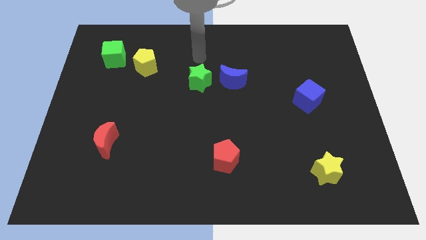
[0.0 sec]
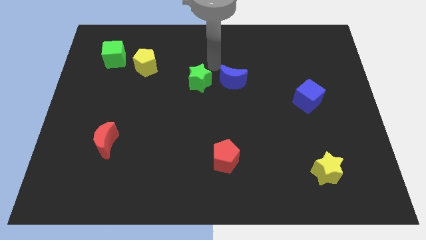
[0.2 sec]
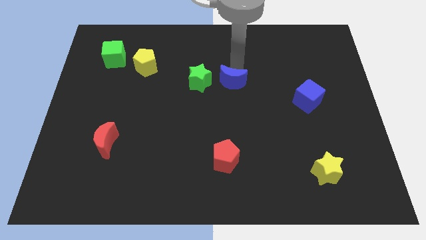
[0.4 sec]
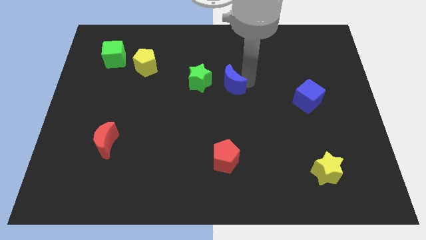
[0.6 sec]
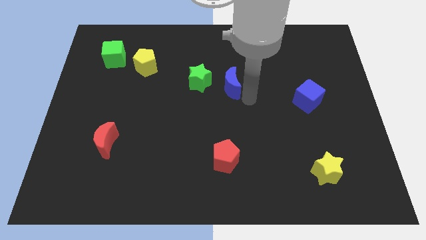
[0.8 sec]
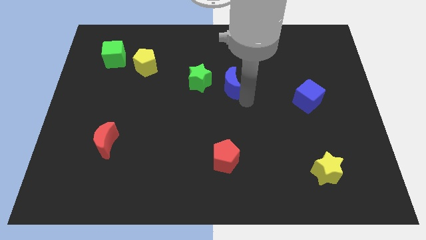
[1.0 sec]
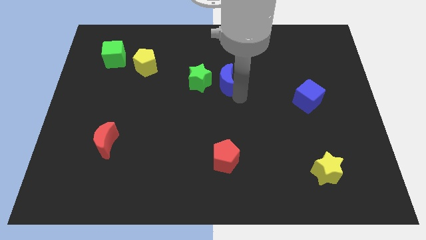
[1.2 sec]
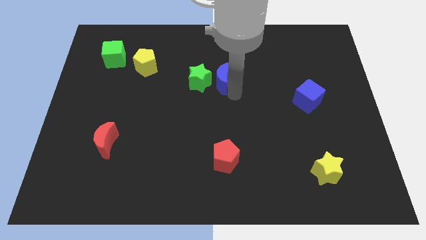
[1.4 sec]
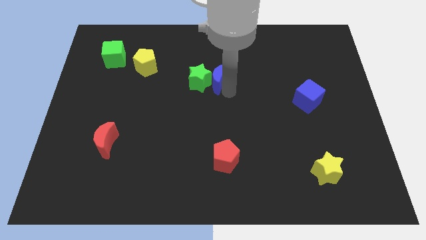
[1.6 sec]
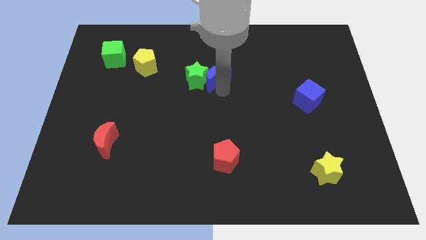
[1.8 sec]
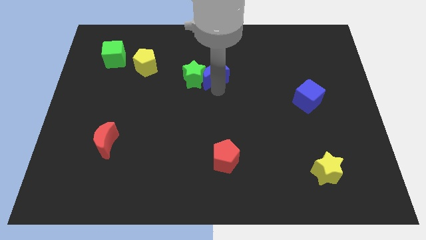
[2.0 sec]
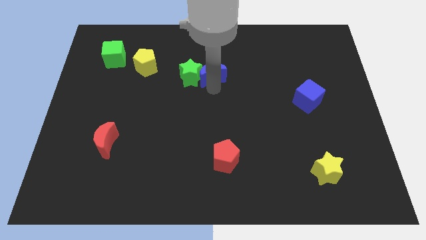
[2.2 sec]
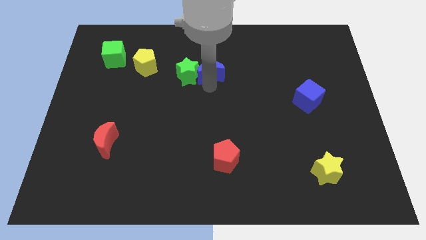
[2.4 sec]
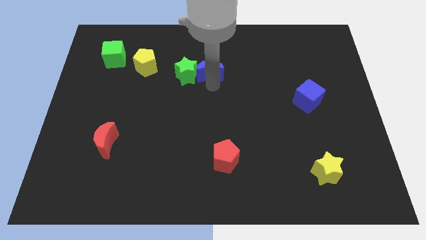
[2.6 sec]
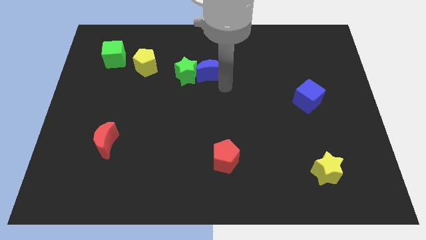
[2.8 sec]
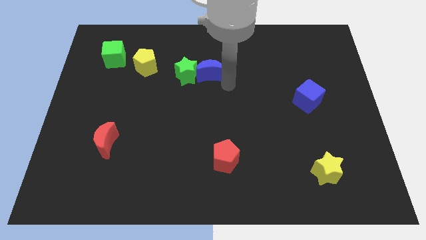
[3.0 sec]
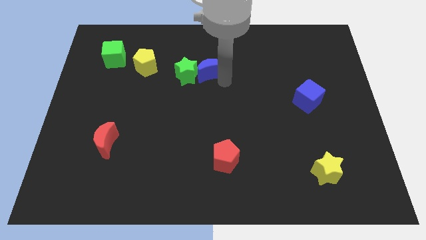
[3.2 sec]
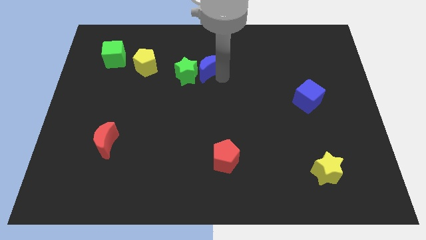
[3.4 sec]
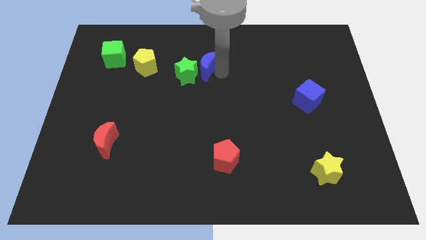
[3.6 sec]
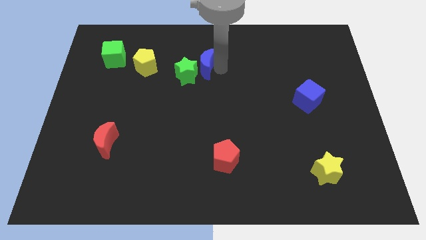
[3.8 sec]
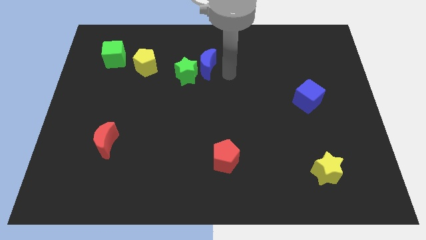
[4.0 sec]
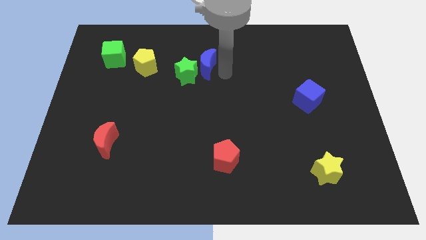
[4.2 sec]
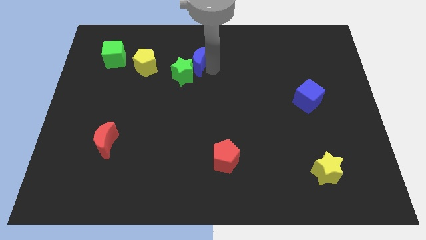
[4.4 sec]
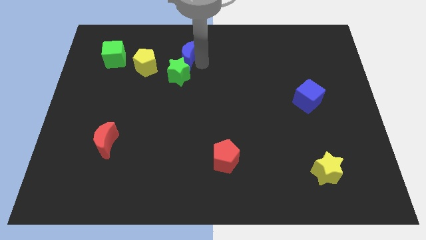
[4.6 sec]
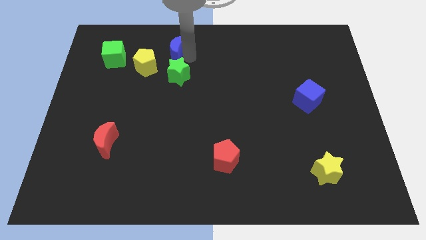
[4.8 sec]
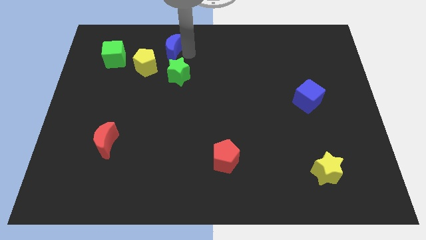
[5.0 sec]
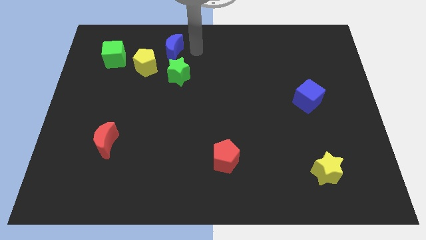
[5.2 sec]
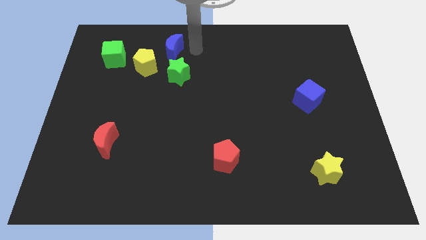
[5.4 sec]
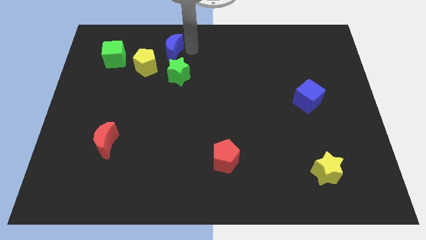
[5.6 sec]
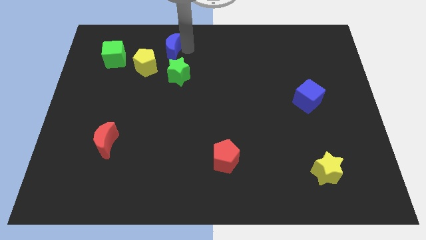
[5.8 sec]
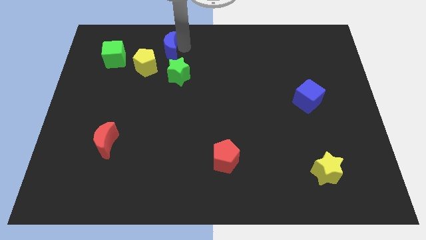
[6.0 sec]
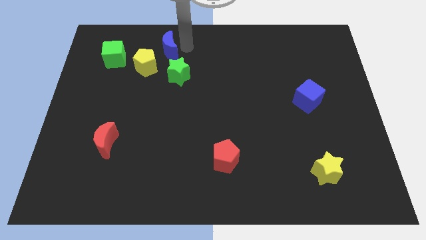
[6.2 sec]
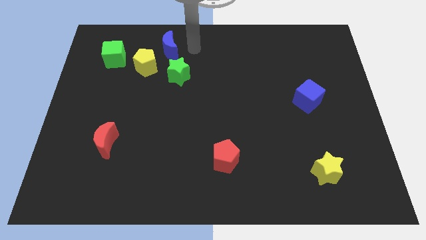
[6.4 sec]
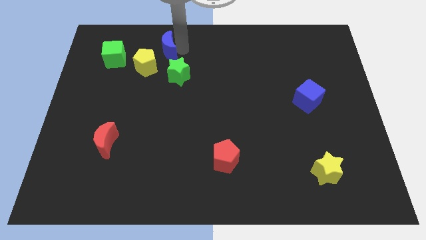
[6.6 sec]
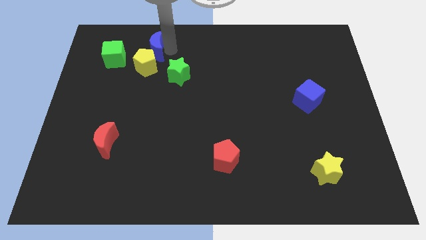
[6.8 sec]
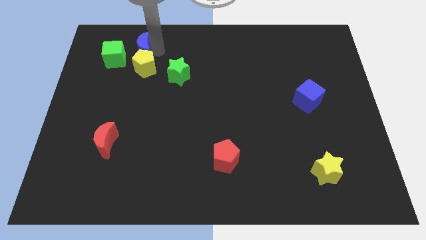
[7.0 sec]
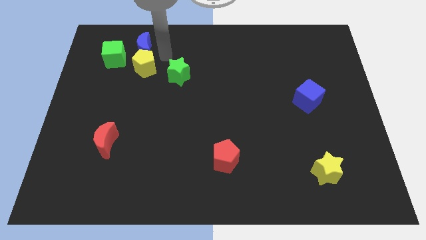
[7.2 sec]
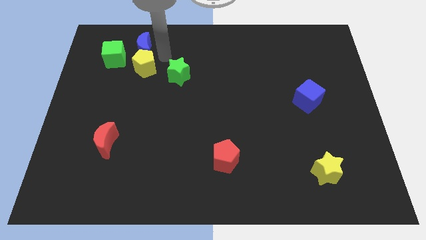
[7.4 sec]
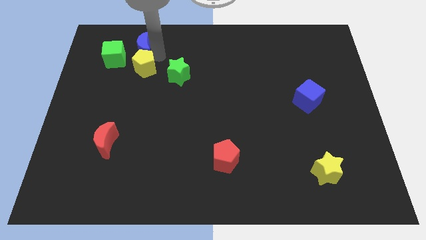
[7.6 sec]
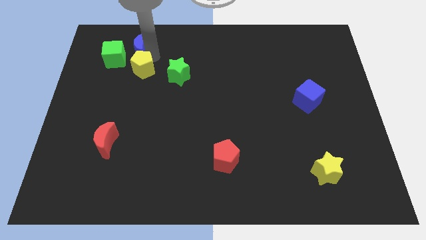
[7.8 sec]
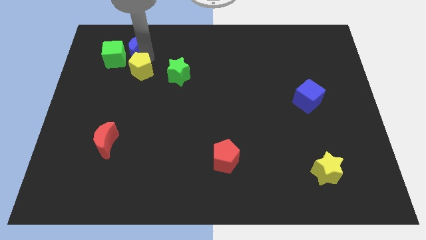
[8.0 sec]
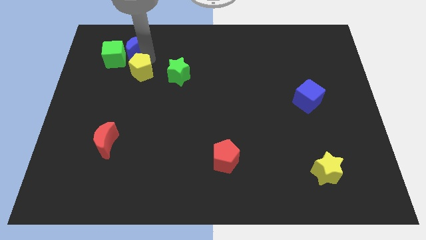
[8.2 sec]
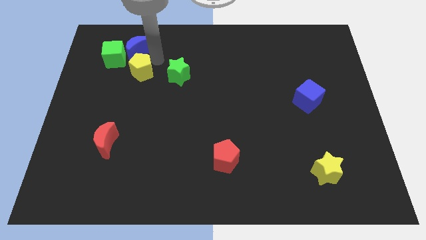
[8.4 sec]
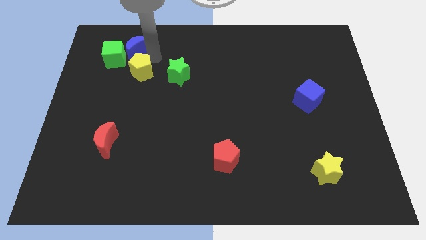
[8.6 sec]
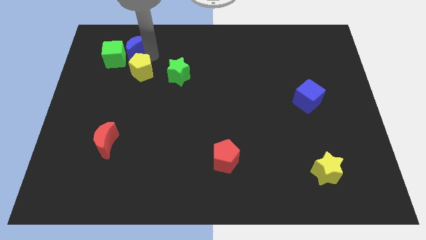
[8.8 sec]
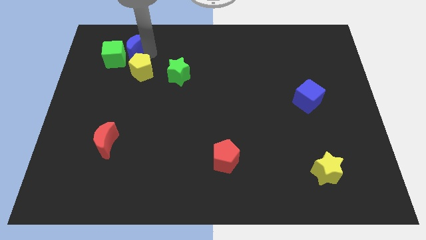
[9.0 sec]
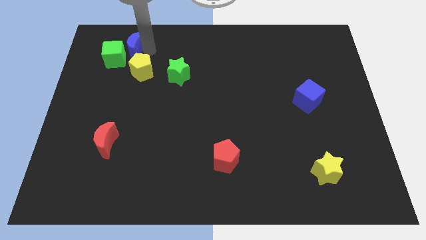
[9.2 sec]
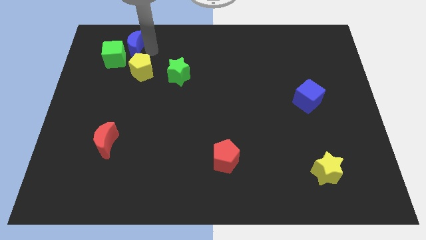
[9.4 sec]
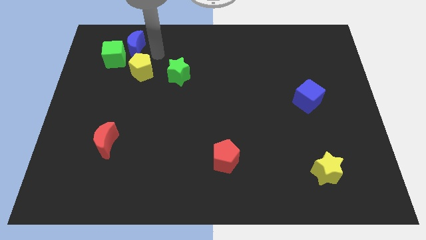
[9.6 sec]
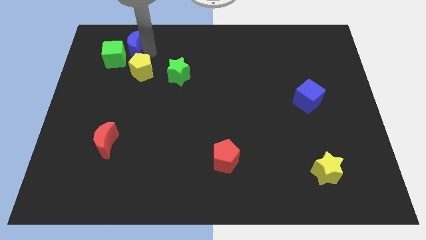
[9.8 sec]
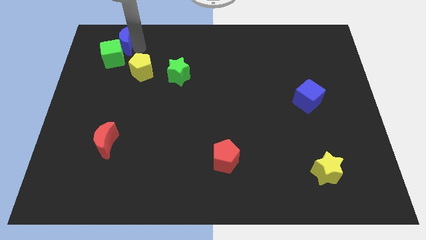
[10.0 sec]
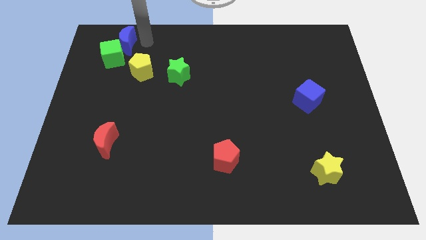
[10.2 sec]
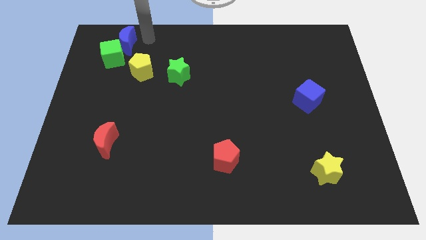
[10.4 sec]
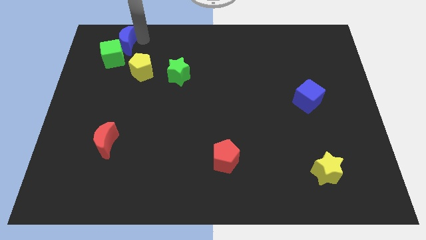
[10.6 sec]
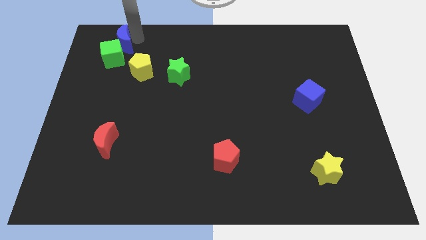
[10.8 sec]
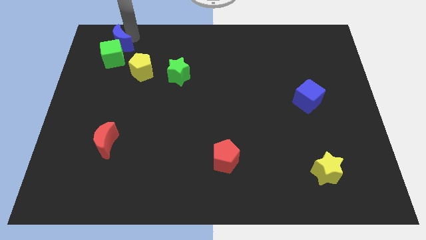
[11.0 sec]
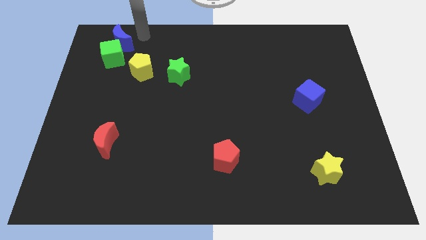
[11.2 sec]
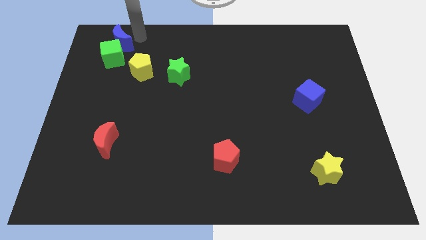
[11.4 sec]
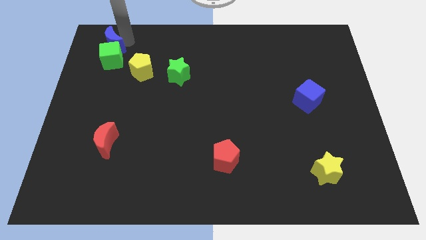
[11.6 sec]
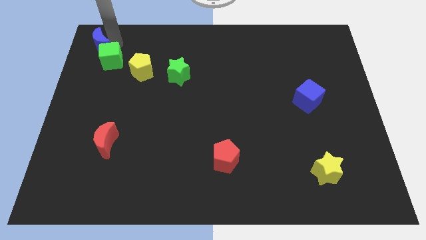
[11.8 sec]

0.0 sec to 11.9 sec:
put the blue moon to the top left

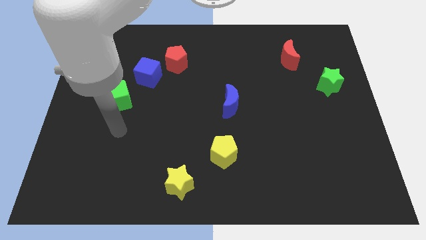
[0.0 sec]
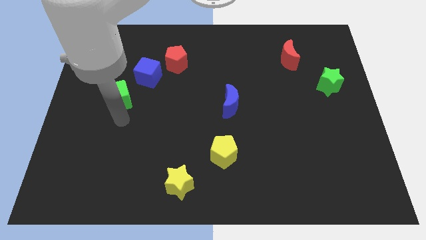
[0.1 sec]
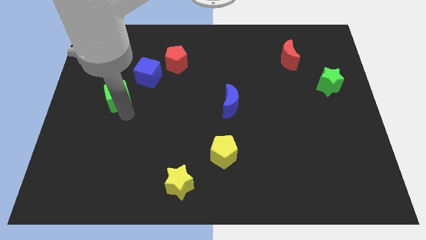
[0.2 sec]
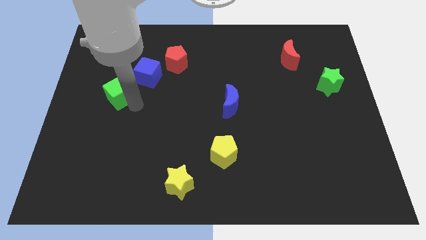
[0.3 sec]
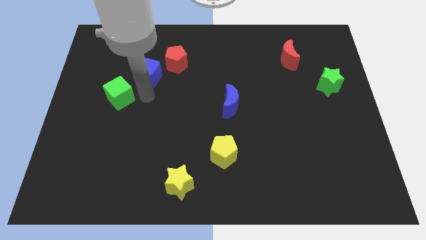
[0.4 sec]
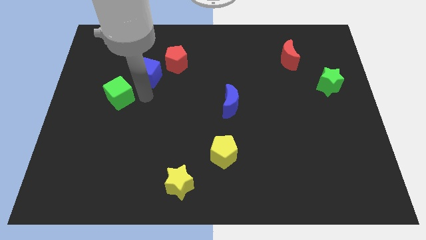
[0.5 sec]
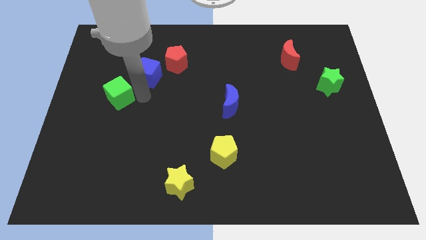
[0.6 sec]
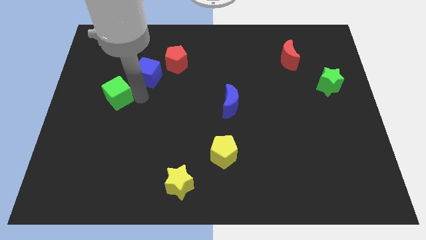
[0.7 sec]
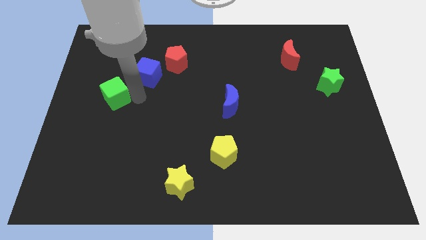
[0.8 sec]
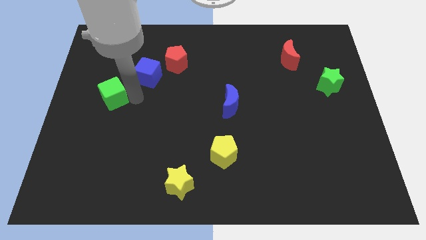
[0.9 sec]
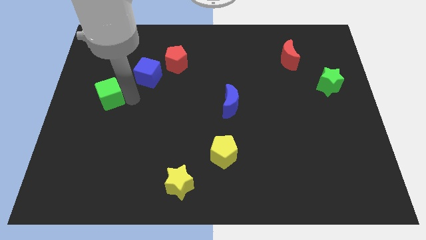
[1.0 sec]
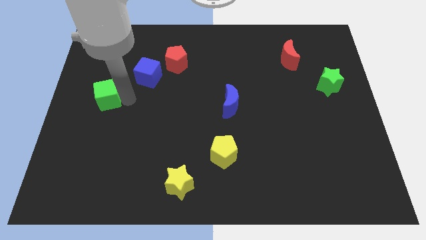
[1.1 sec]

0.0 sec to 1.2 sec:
slide the green cube to the left side
